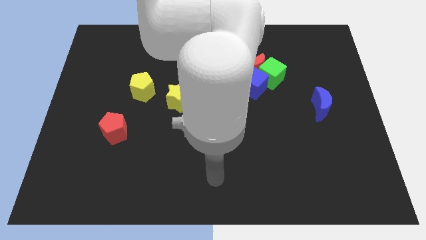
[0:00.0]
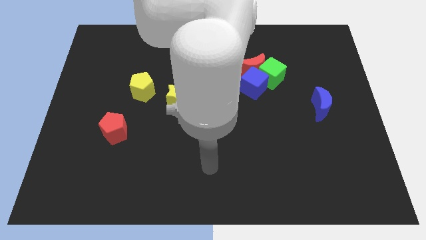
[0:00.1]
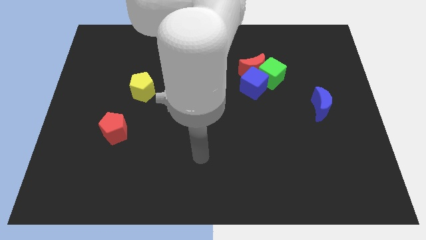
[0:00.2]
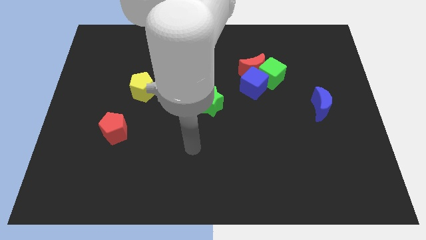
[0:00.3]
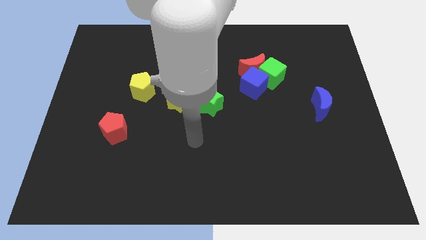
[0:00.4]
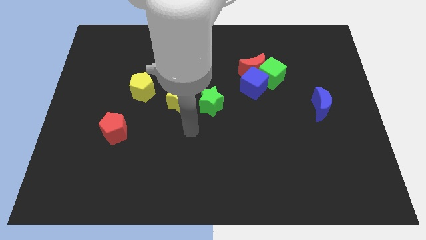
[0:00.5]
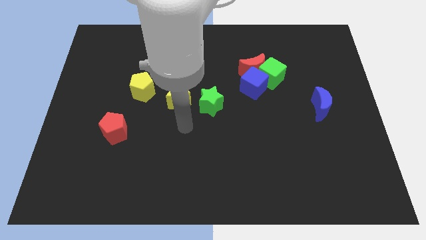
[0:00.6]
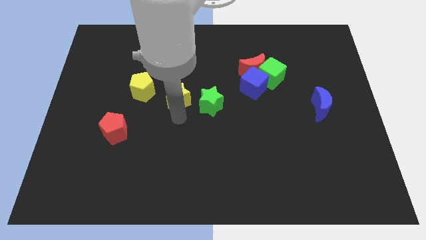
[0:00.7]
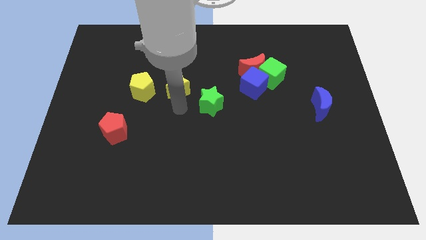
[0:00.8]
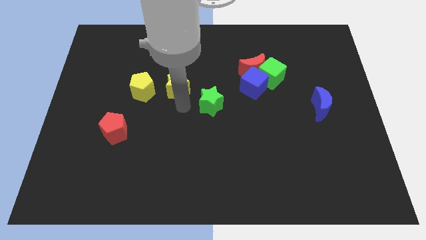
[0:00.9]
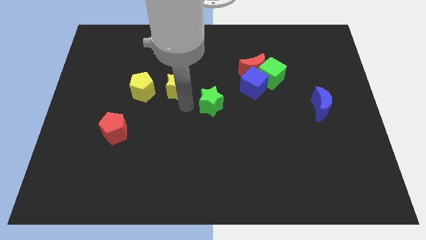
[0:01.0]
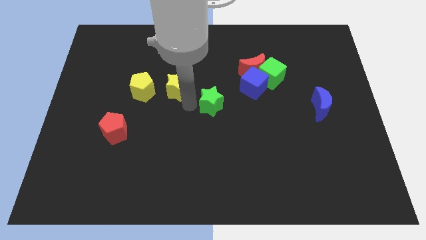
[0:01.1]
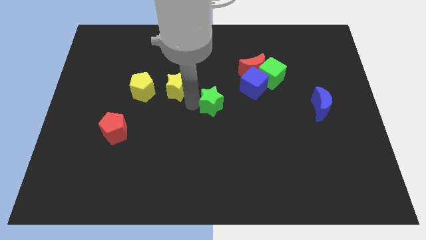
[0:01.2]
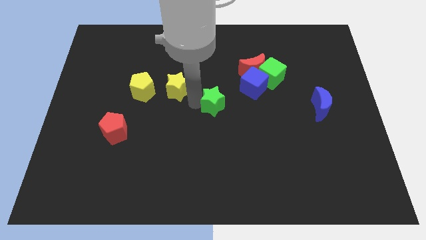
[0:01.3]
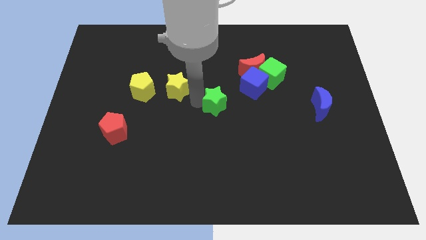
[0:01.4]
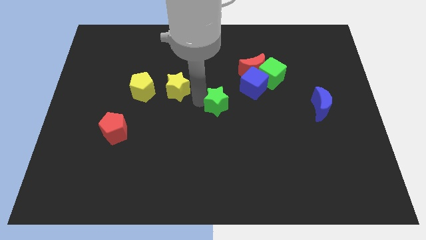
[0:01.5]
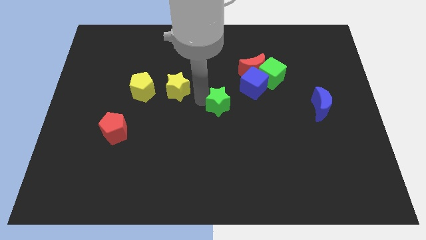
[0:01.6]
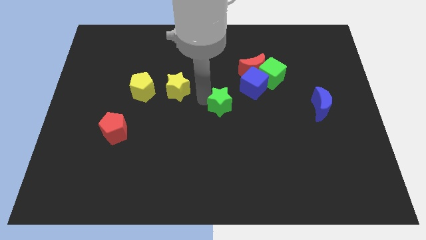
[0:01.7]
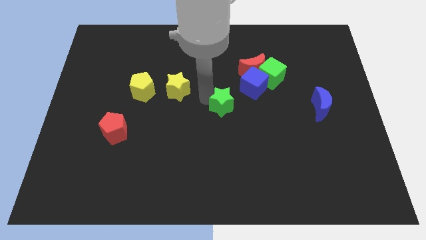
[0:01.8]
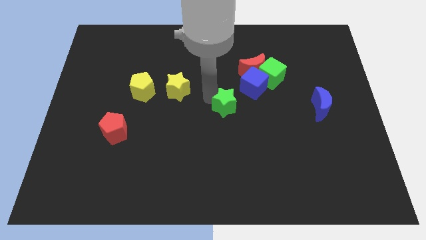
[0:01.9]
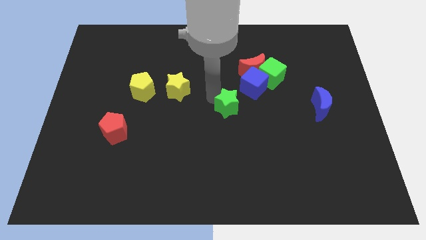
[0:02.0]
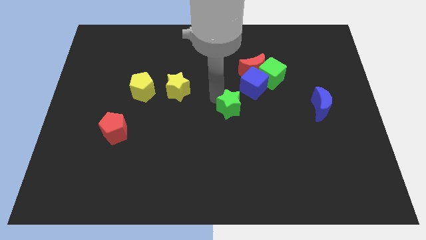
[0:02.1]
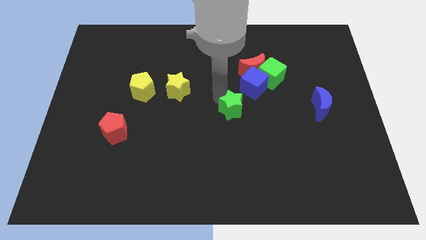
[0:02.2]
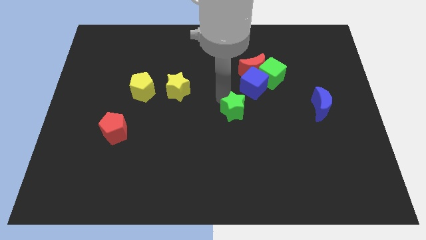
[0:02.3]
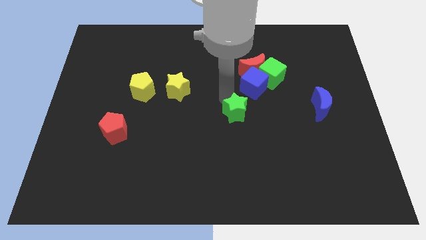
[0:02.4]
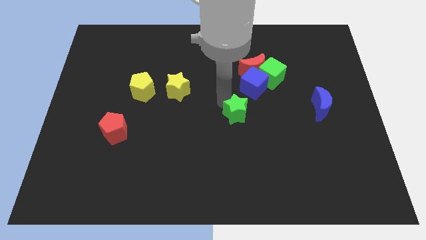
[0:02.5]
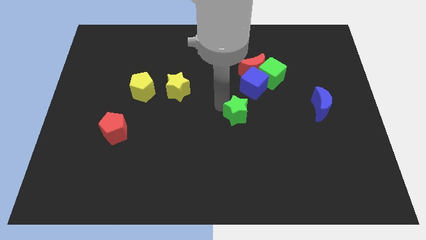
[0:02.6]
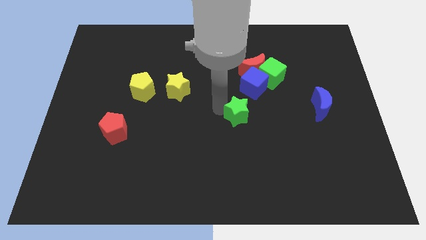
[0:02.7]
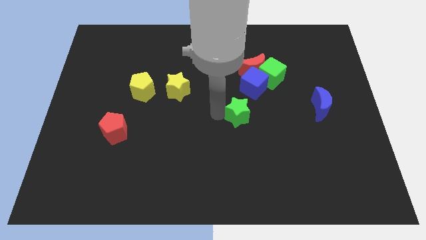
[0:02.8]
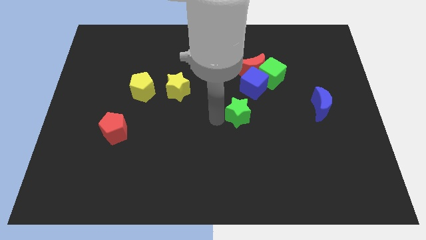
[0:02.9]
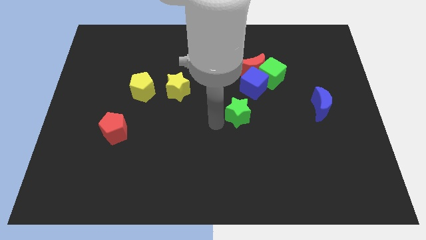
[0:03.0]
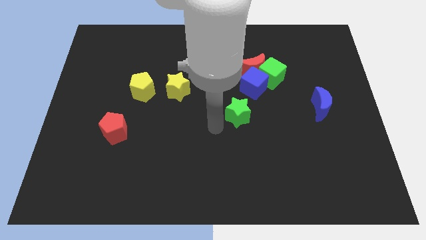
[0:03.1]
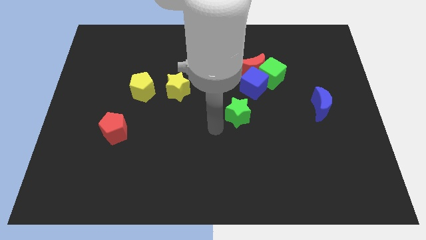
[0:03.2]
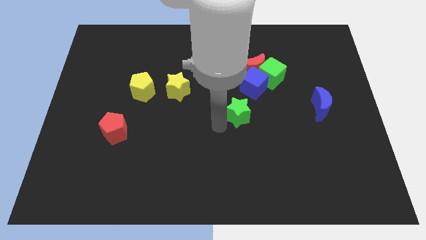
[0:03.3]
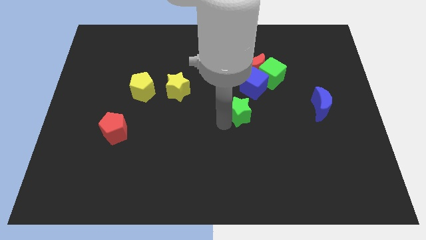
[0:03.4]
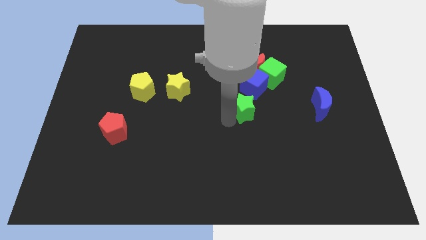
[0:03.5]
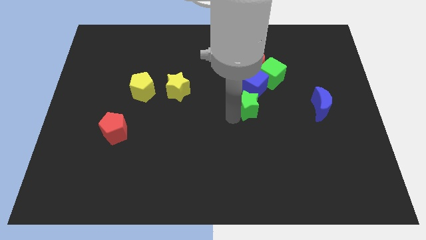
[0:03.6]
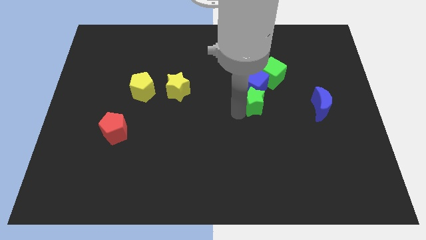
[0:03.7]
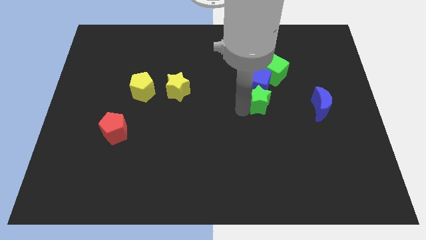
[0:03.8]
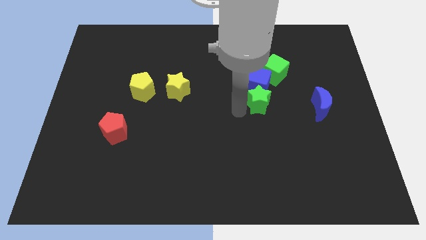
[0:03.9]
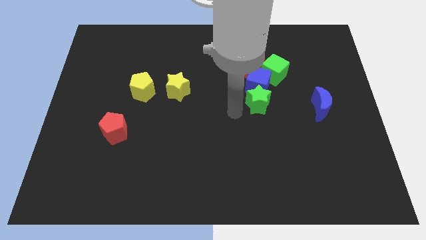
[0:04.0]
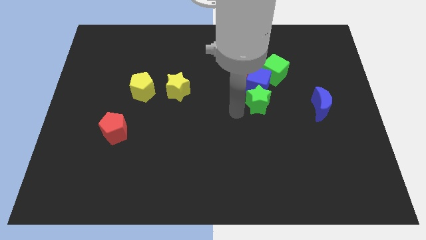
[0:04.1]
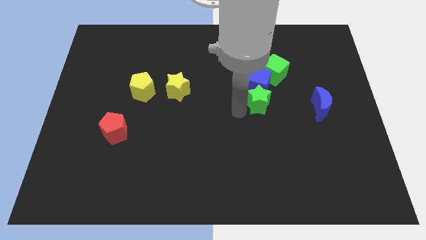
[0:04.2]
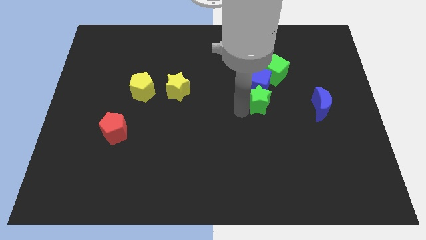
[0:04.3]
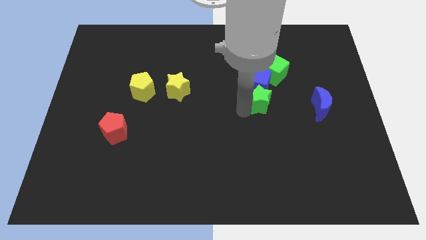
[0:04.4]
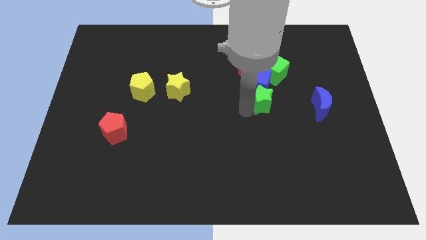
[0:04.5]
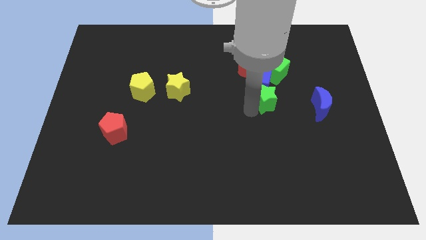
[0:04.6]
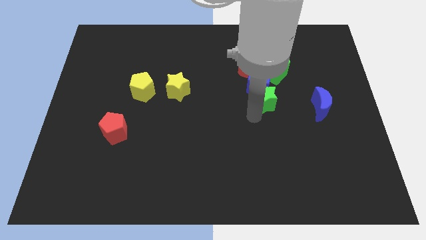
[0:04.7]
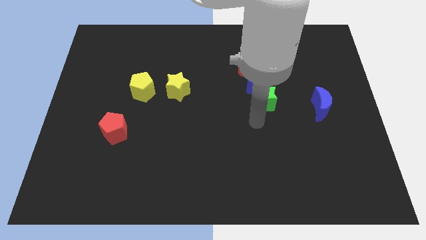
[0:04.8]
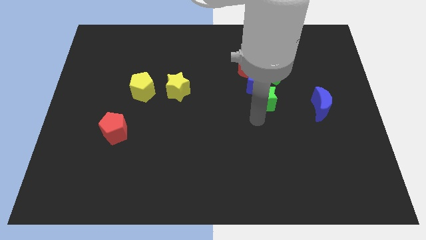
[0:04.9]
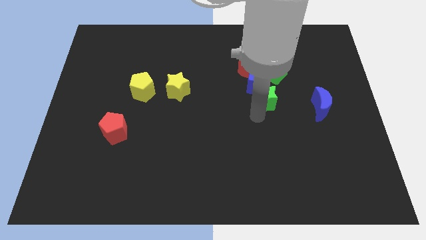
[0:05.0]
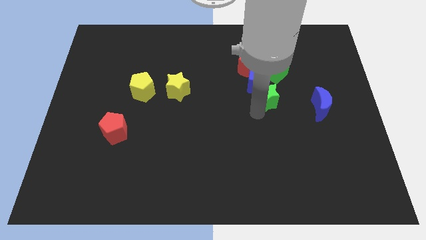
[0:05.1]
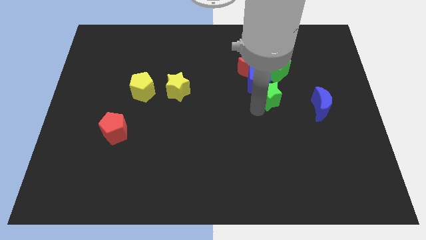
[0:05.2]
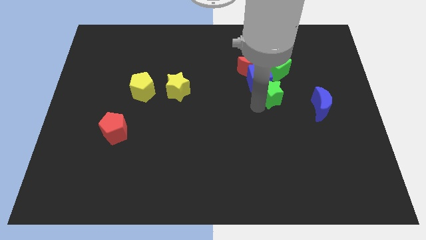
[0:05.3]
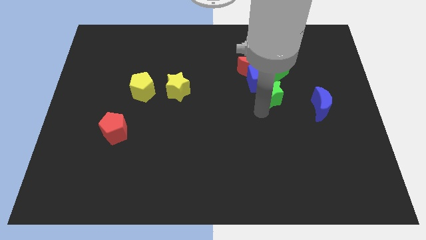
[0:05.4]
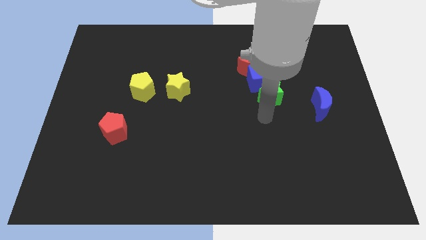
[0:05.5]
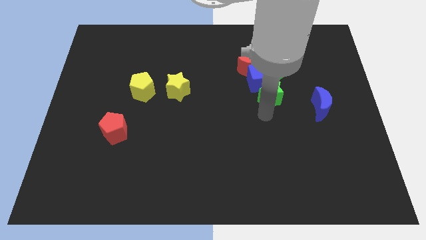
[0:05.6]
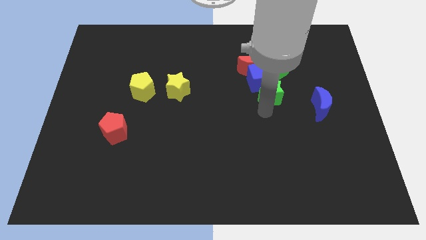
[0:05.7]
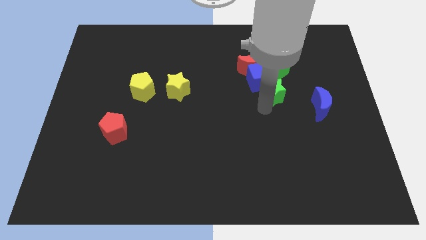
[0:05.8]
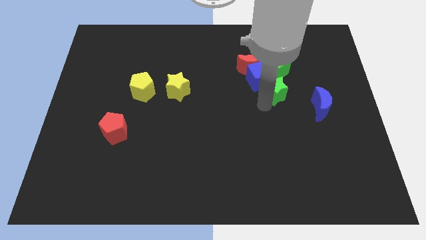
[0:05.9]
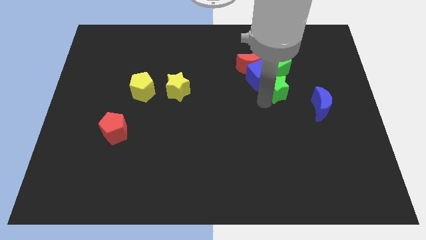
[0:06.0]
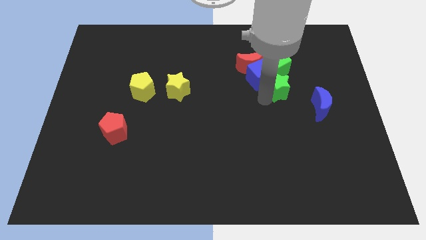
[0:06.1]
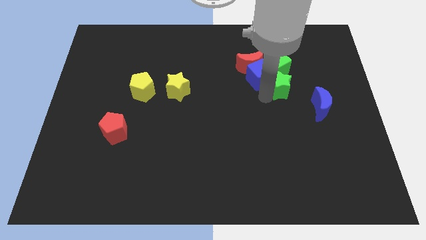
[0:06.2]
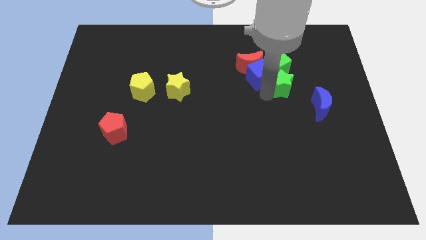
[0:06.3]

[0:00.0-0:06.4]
move the green star towards the green cube
